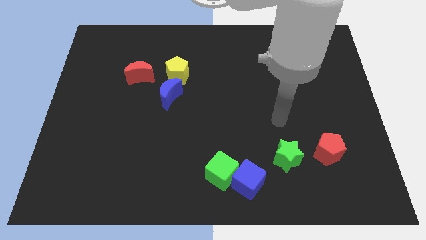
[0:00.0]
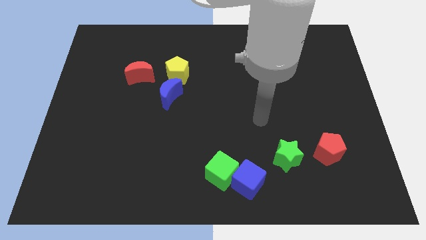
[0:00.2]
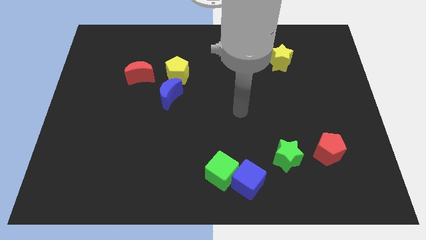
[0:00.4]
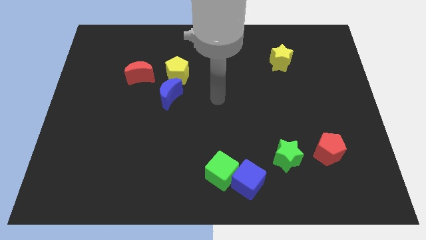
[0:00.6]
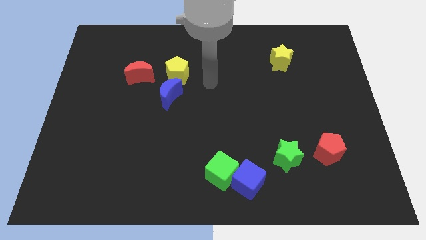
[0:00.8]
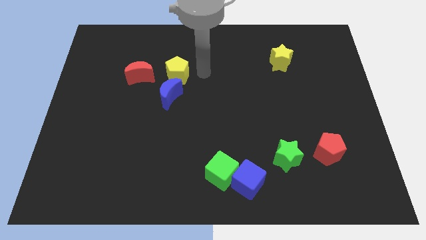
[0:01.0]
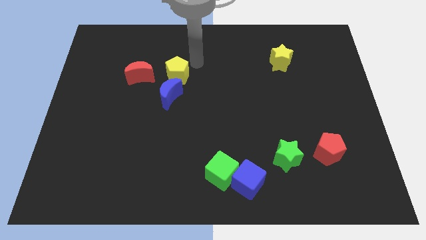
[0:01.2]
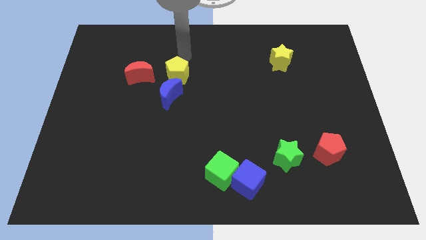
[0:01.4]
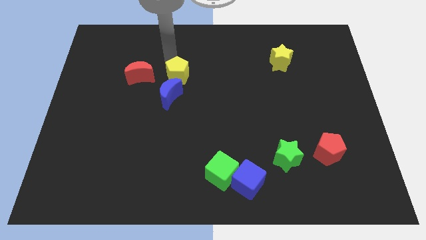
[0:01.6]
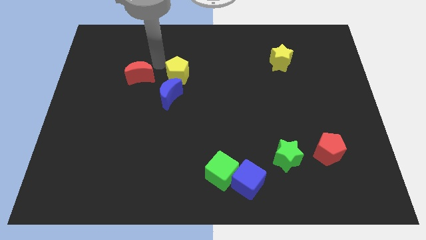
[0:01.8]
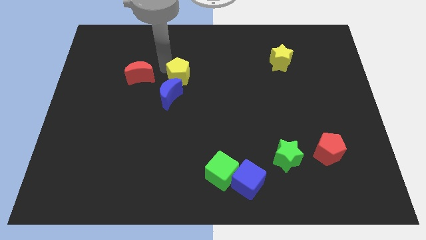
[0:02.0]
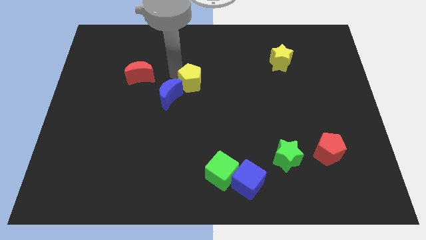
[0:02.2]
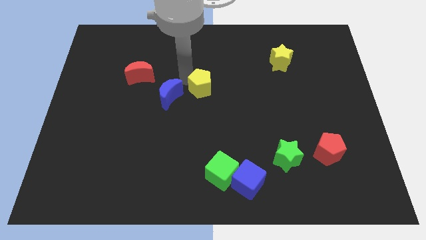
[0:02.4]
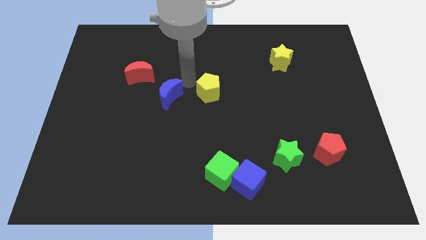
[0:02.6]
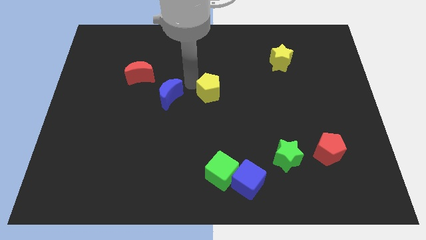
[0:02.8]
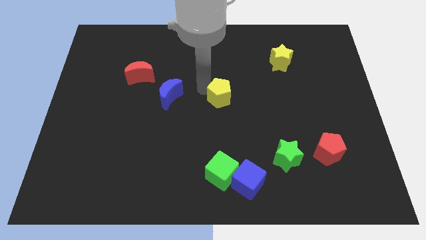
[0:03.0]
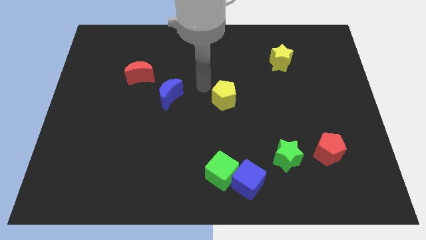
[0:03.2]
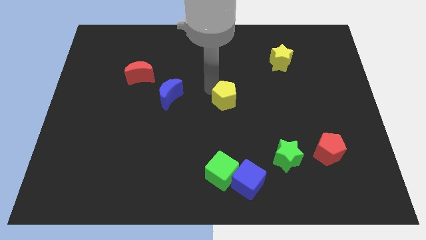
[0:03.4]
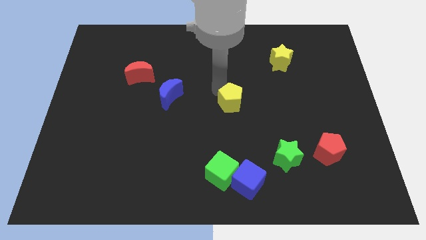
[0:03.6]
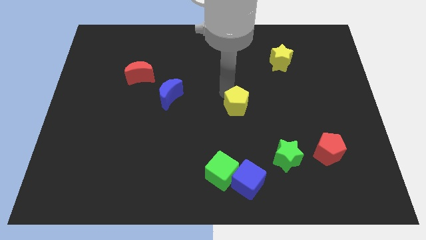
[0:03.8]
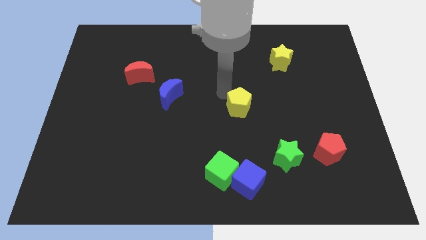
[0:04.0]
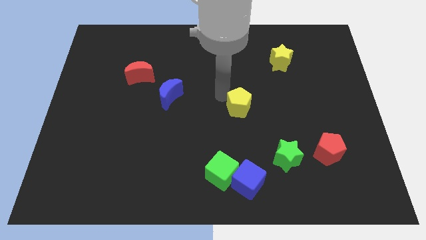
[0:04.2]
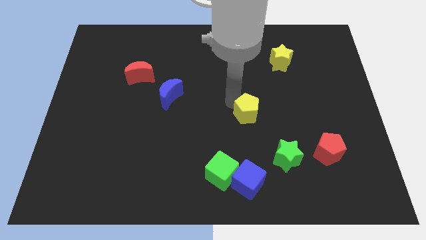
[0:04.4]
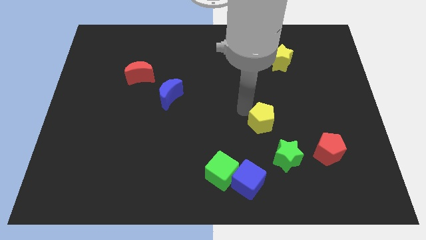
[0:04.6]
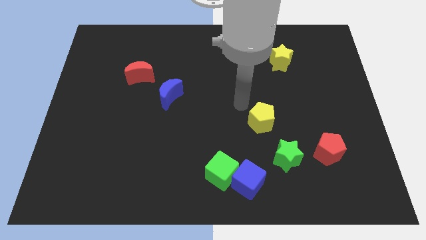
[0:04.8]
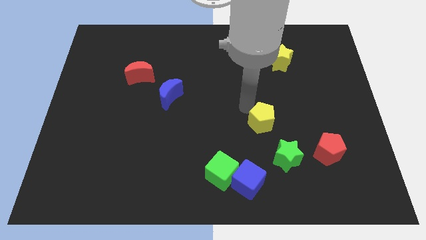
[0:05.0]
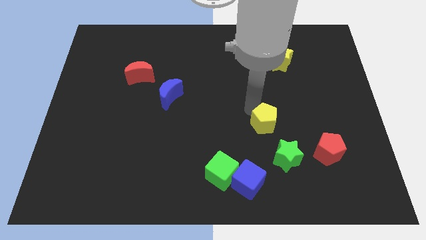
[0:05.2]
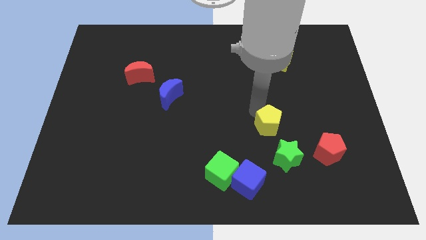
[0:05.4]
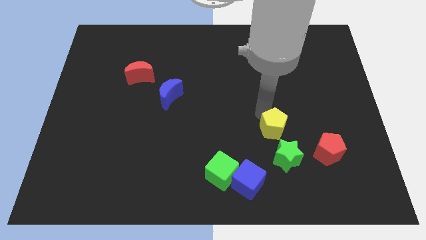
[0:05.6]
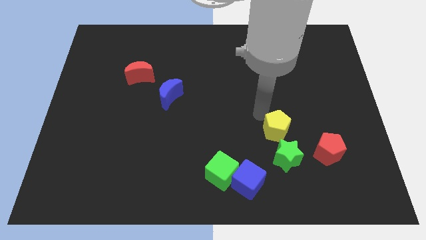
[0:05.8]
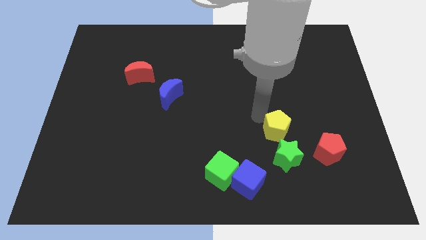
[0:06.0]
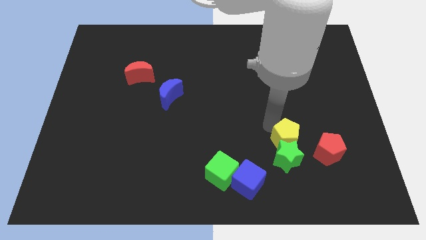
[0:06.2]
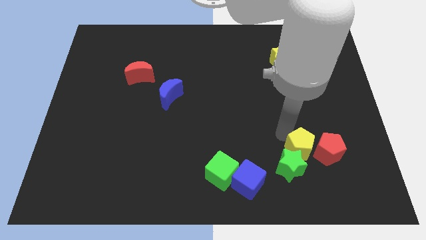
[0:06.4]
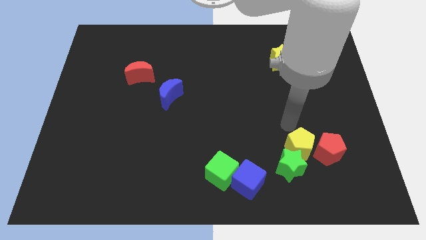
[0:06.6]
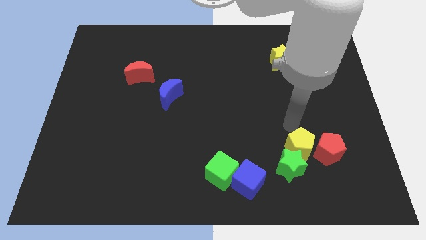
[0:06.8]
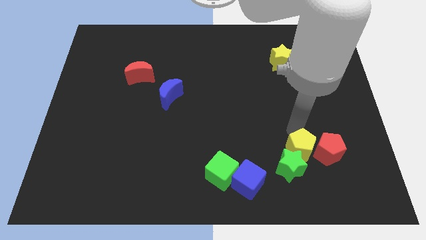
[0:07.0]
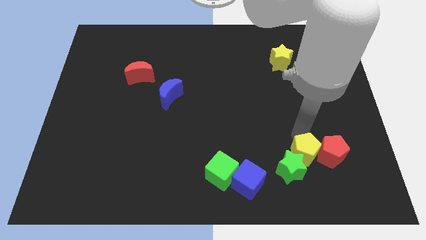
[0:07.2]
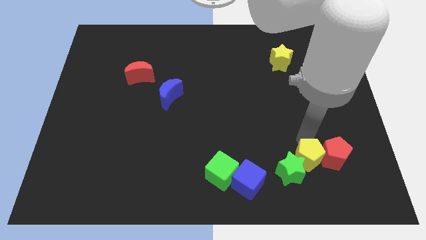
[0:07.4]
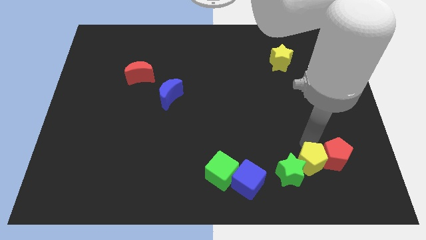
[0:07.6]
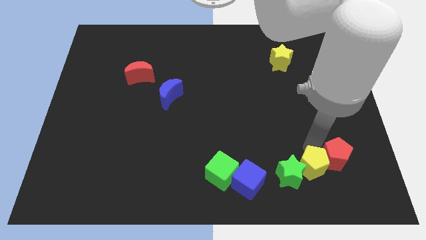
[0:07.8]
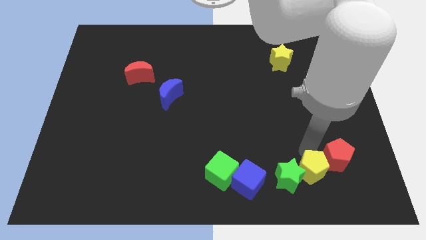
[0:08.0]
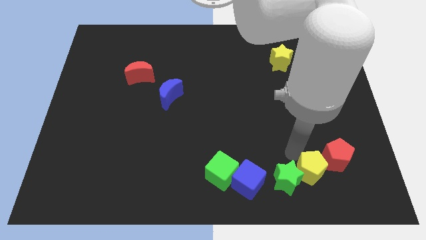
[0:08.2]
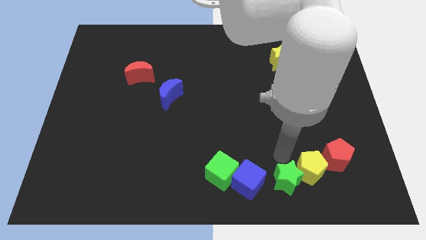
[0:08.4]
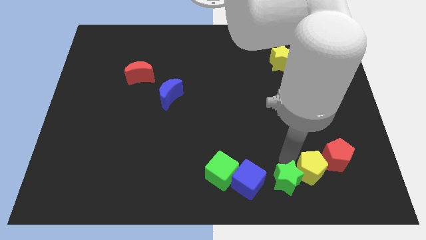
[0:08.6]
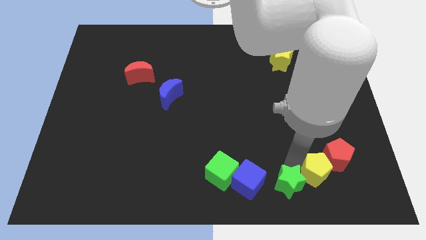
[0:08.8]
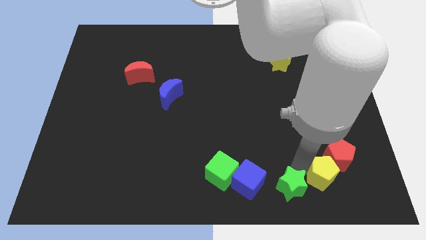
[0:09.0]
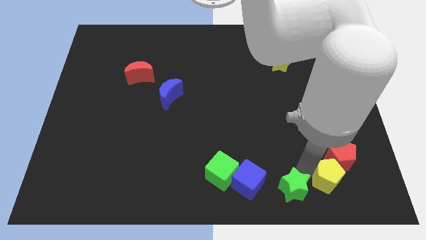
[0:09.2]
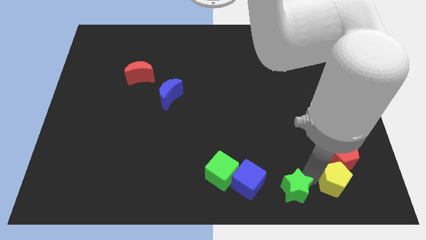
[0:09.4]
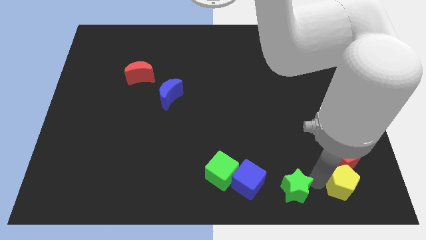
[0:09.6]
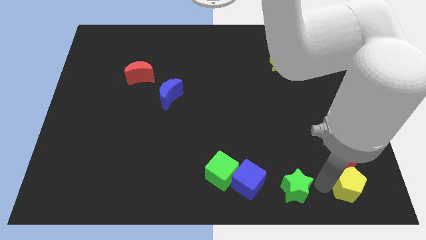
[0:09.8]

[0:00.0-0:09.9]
slide the yellow pentagon to the bottom right

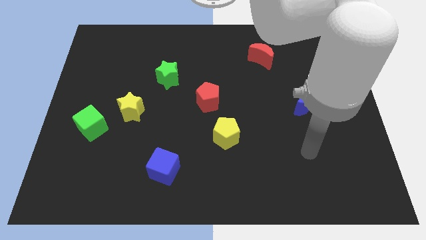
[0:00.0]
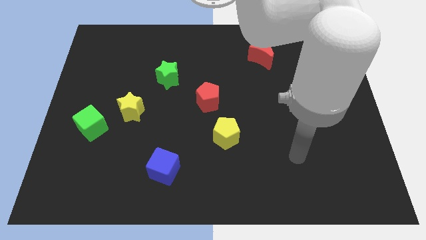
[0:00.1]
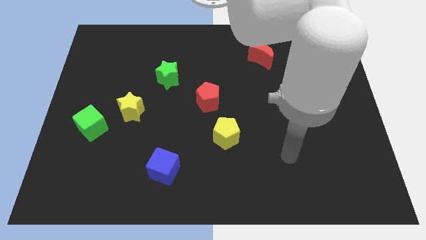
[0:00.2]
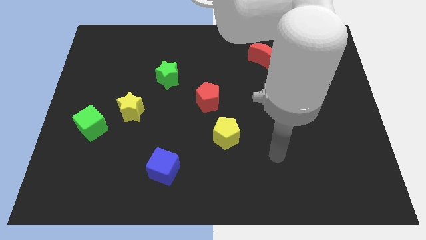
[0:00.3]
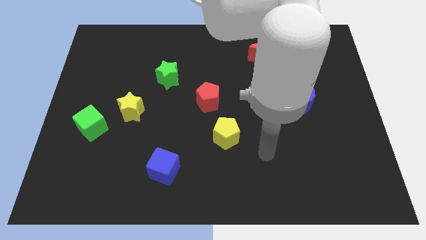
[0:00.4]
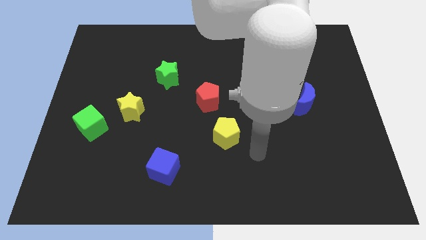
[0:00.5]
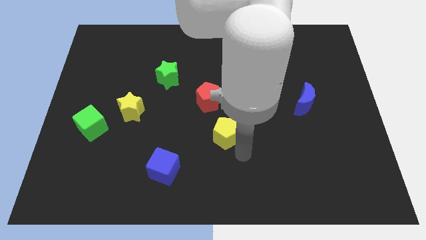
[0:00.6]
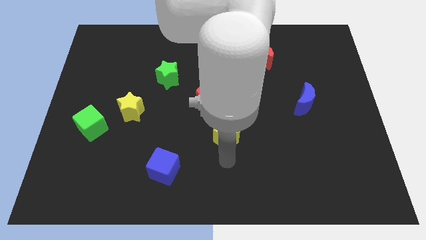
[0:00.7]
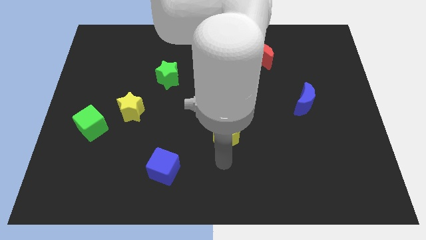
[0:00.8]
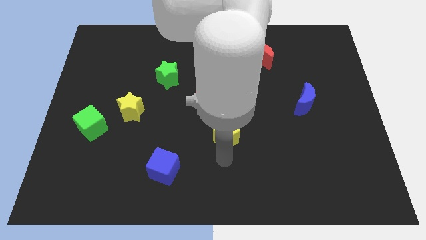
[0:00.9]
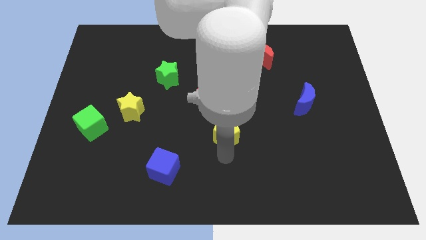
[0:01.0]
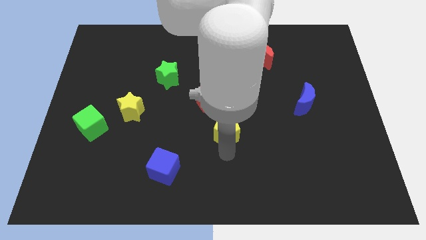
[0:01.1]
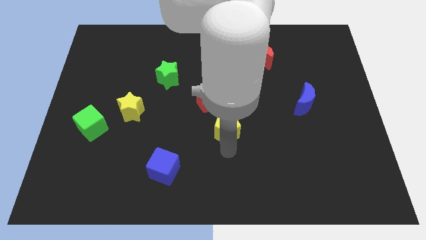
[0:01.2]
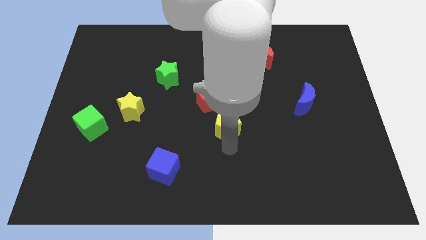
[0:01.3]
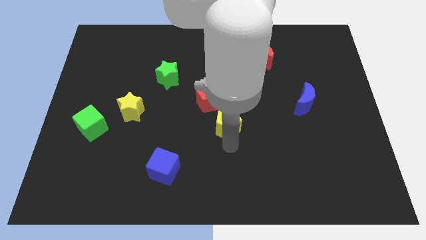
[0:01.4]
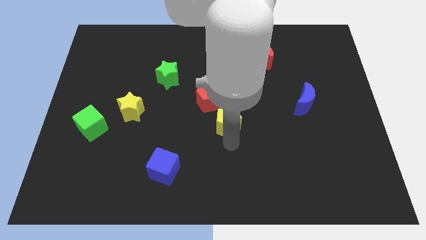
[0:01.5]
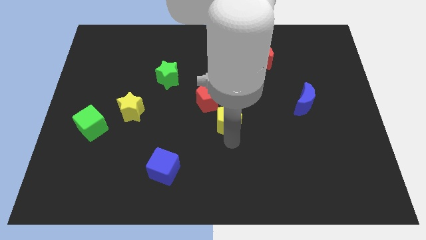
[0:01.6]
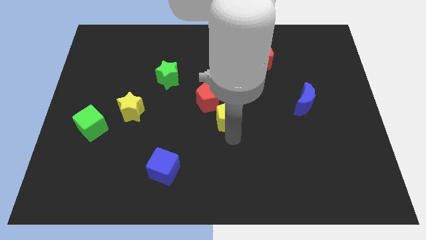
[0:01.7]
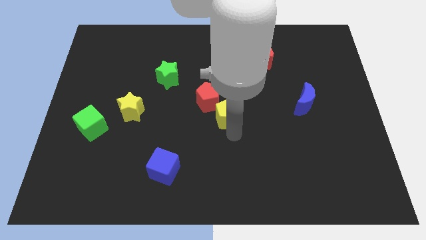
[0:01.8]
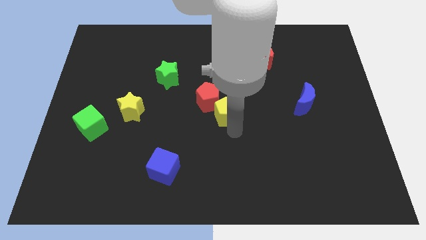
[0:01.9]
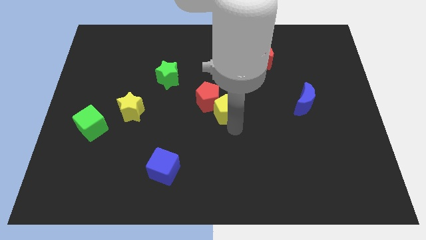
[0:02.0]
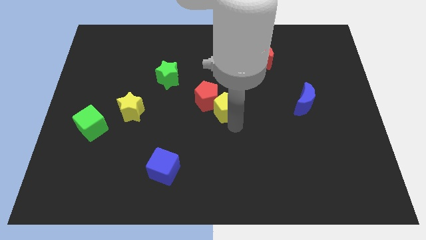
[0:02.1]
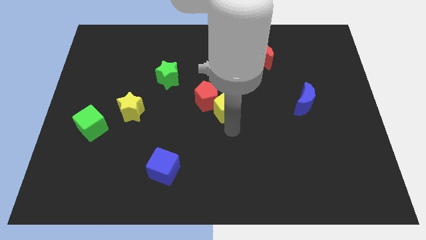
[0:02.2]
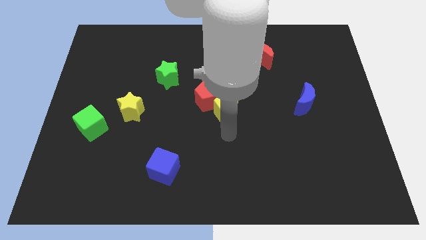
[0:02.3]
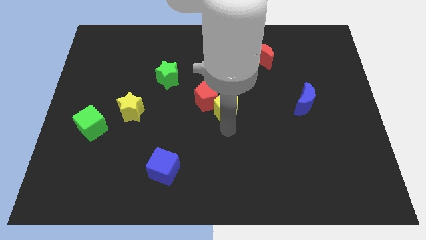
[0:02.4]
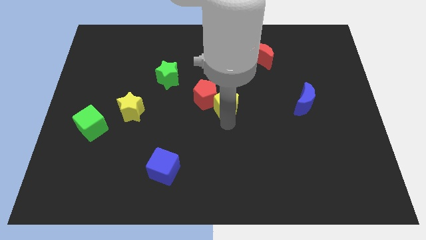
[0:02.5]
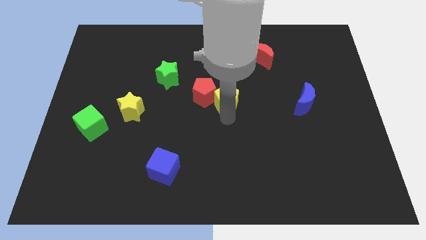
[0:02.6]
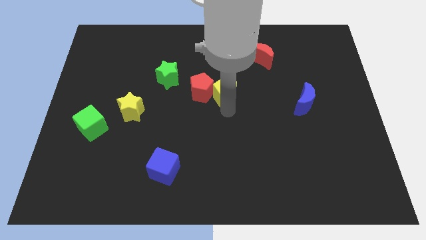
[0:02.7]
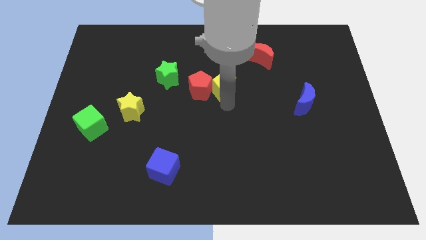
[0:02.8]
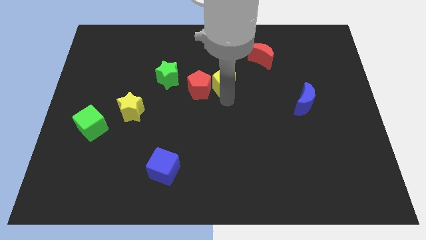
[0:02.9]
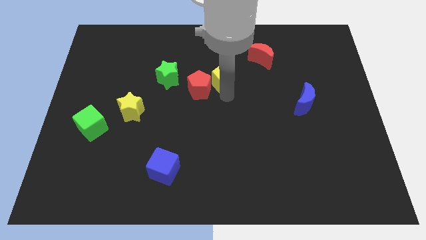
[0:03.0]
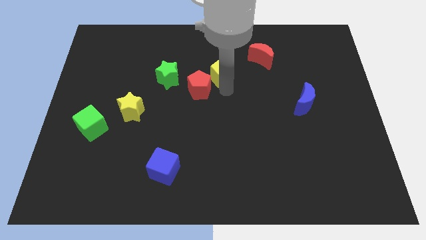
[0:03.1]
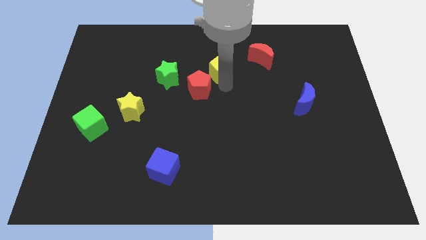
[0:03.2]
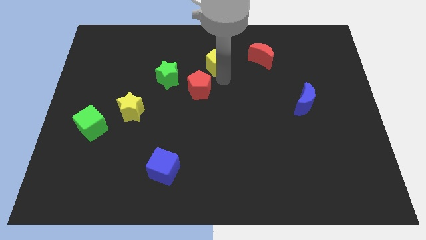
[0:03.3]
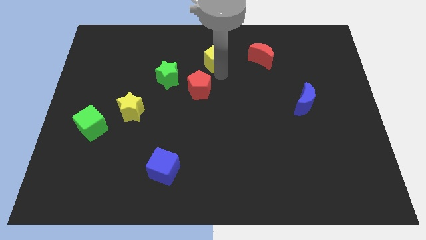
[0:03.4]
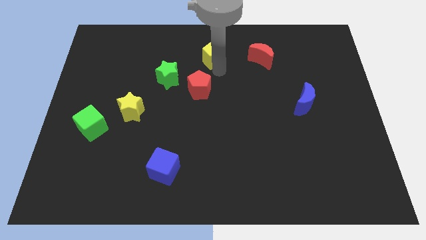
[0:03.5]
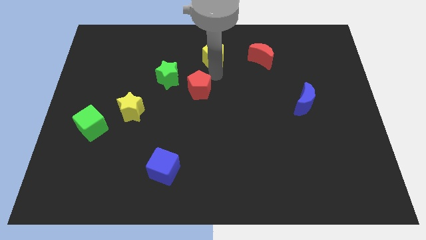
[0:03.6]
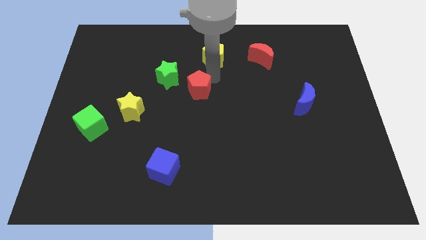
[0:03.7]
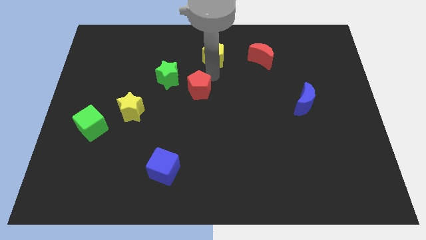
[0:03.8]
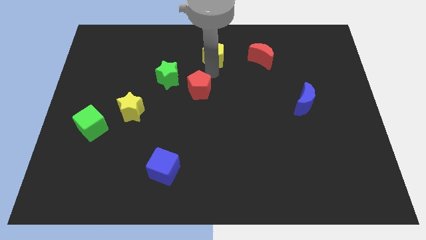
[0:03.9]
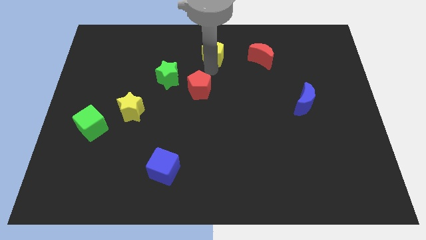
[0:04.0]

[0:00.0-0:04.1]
move the yellow pentagon to the top
